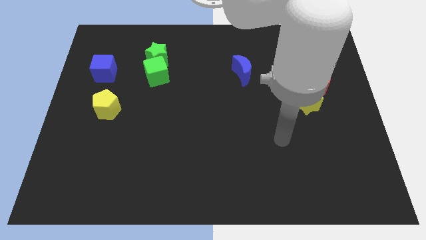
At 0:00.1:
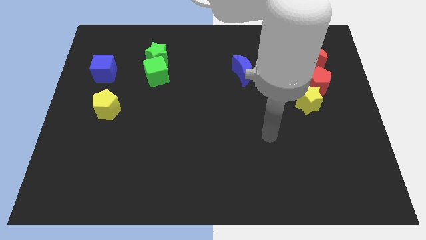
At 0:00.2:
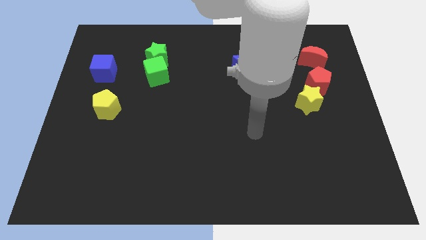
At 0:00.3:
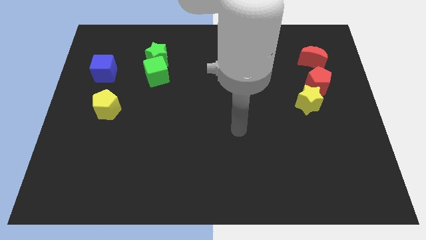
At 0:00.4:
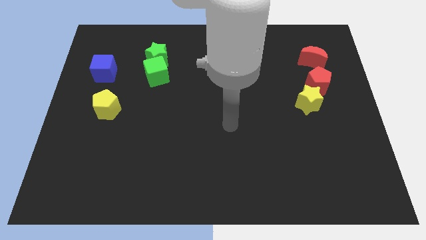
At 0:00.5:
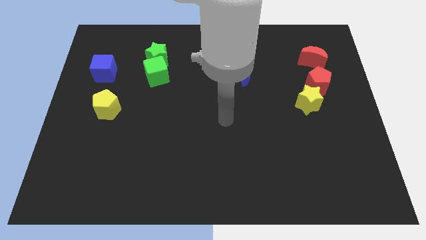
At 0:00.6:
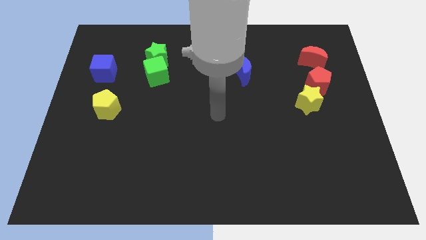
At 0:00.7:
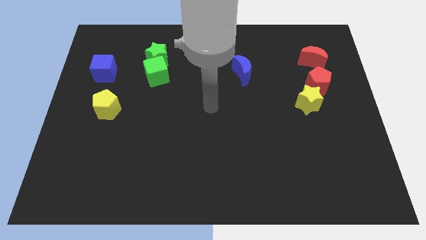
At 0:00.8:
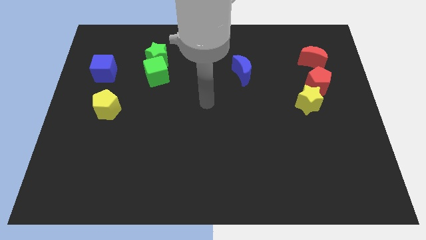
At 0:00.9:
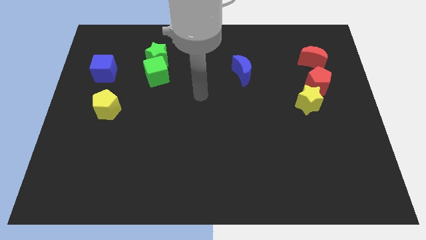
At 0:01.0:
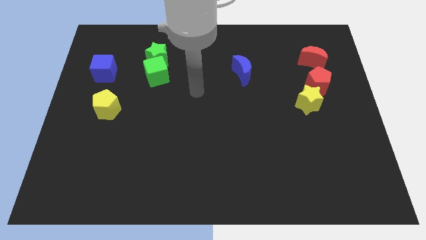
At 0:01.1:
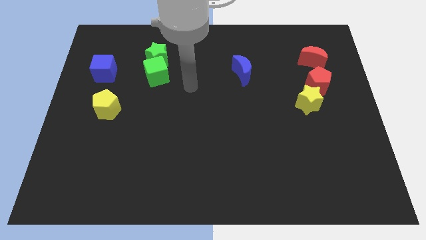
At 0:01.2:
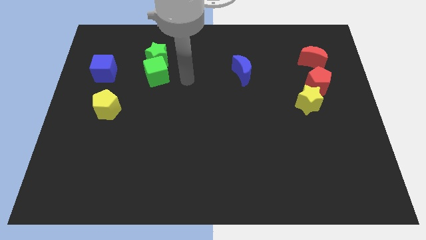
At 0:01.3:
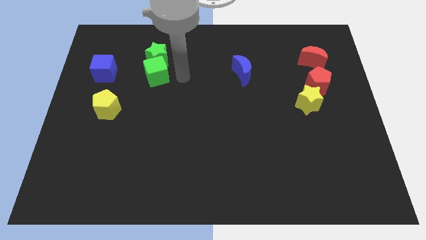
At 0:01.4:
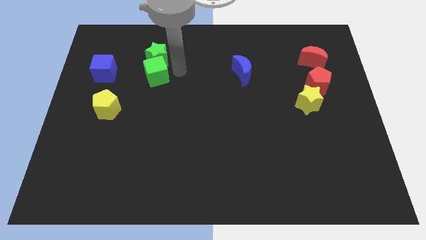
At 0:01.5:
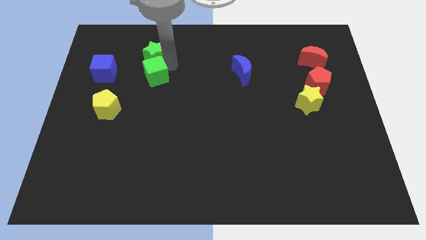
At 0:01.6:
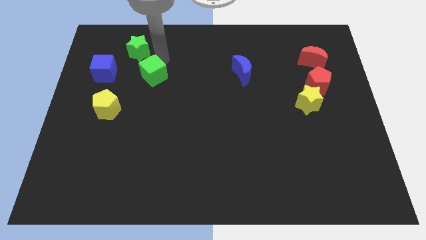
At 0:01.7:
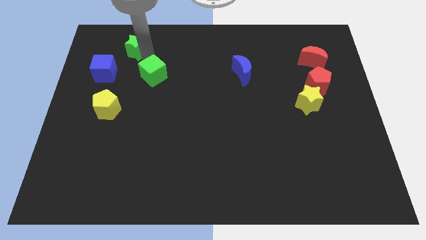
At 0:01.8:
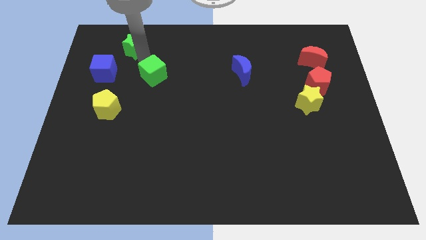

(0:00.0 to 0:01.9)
pull the green cube apart from the green star

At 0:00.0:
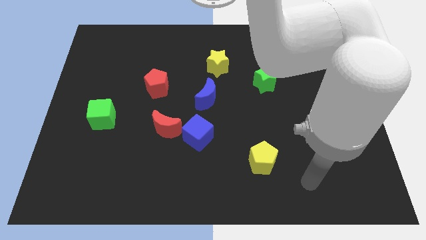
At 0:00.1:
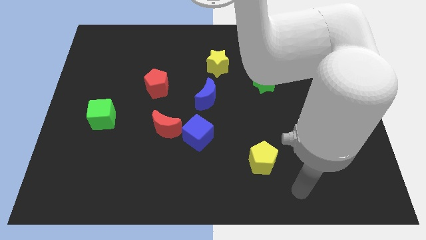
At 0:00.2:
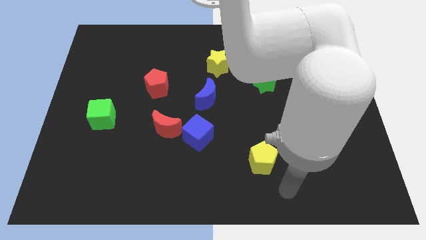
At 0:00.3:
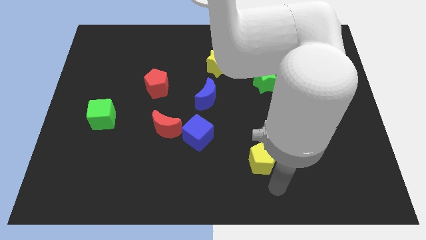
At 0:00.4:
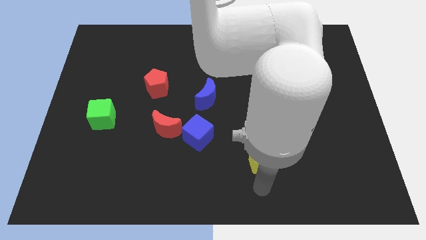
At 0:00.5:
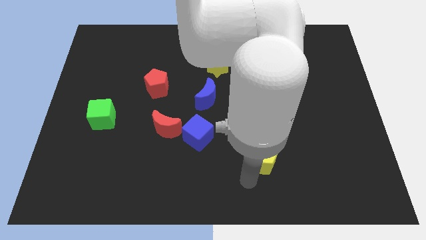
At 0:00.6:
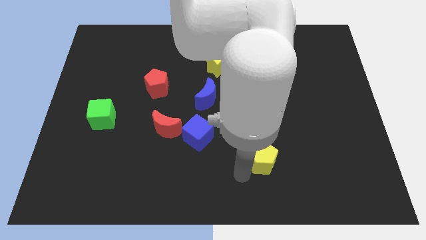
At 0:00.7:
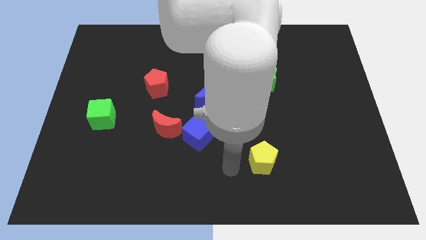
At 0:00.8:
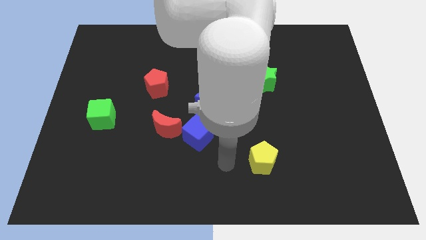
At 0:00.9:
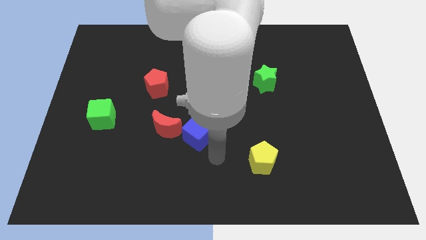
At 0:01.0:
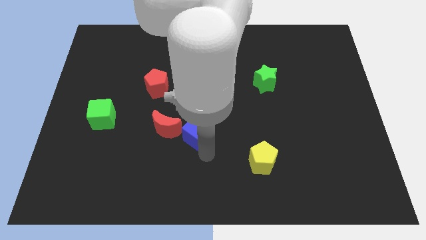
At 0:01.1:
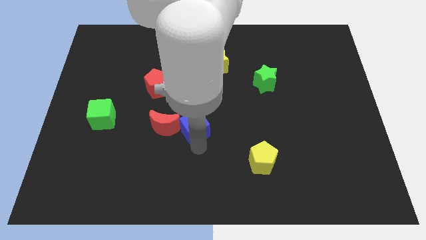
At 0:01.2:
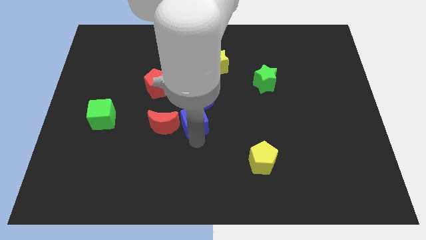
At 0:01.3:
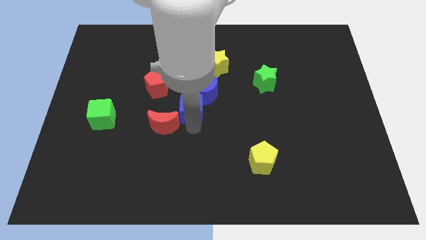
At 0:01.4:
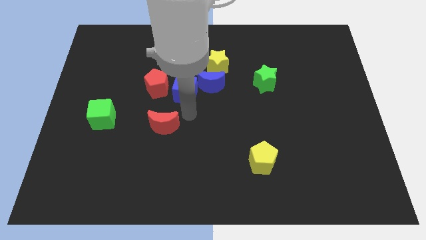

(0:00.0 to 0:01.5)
move the red moon away from the blue cube

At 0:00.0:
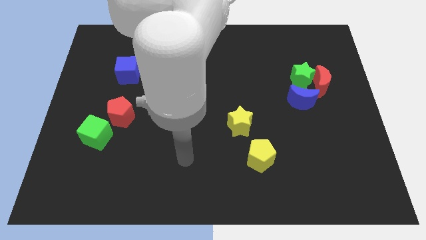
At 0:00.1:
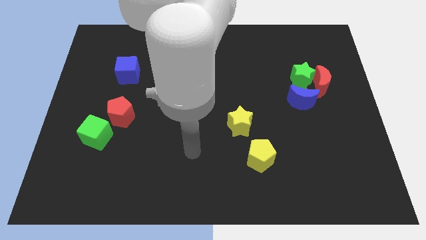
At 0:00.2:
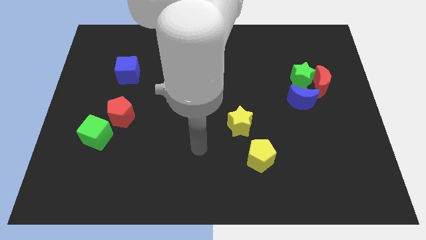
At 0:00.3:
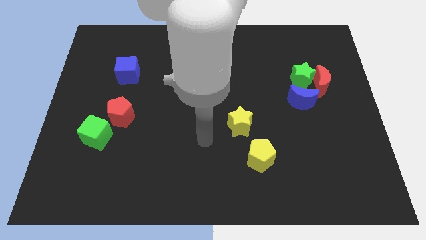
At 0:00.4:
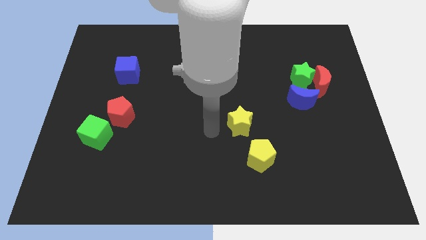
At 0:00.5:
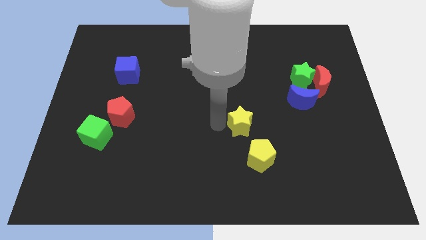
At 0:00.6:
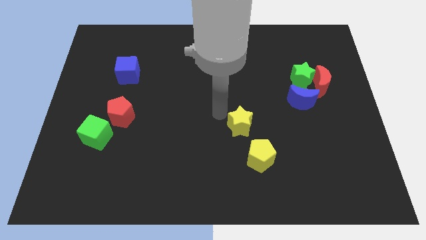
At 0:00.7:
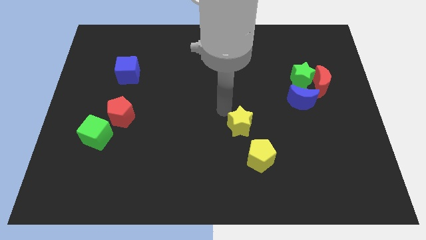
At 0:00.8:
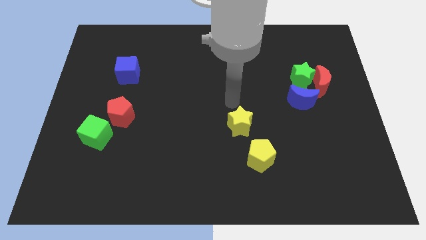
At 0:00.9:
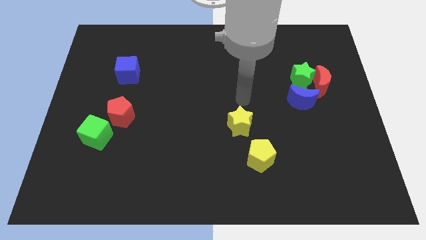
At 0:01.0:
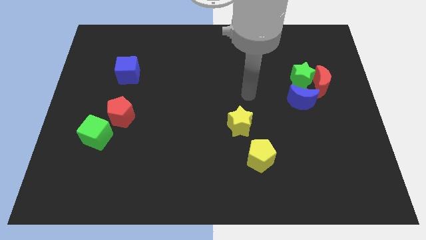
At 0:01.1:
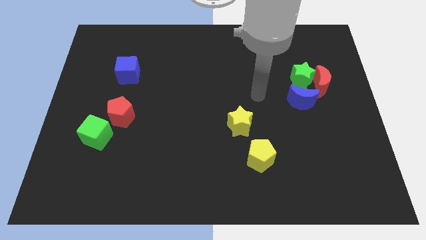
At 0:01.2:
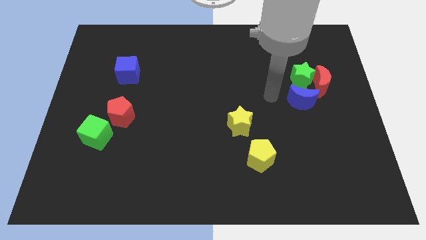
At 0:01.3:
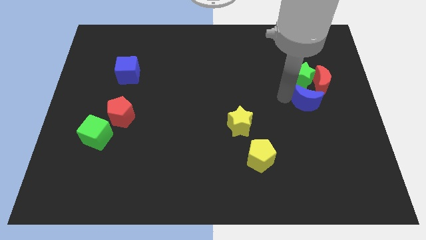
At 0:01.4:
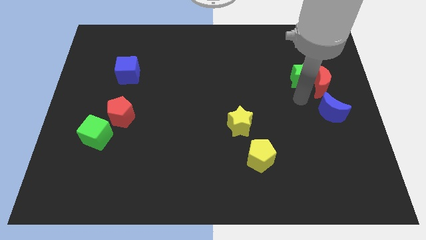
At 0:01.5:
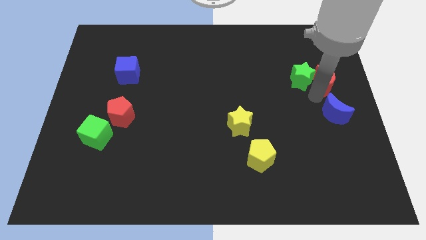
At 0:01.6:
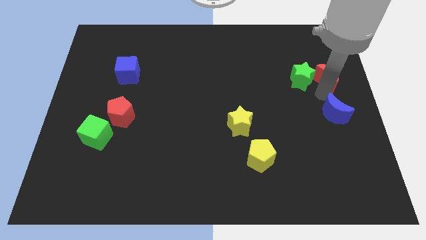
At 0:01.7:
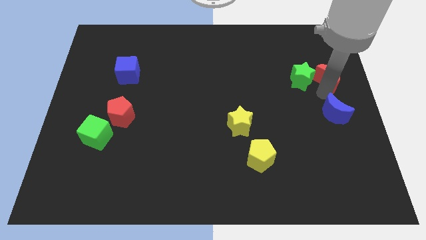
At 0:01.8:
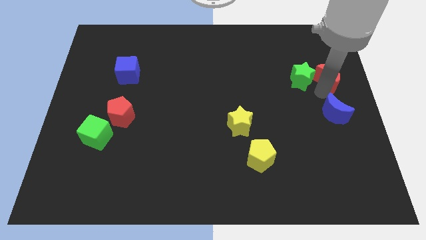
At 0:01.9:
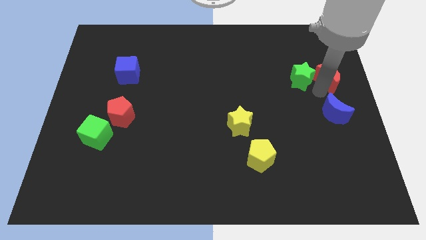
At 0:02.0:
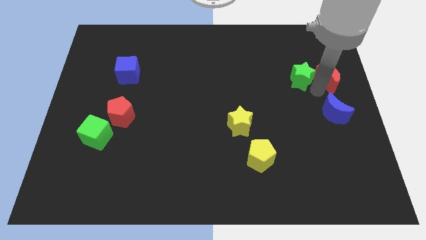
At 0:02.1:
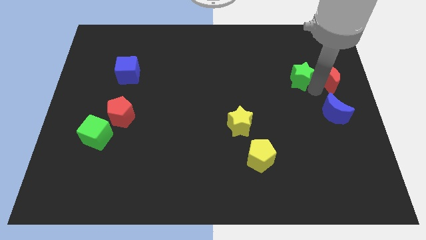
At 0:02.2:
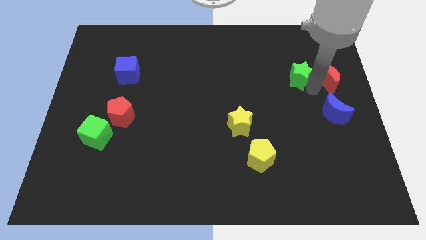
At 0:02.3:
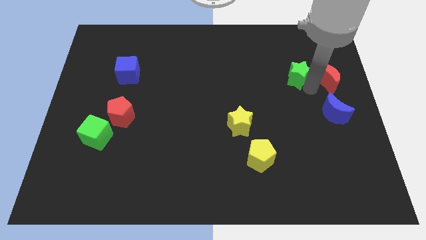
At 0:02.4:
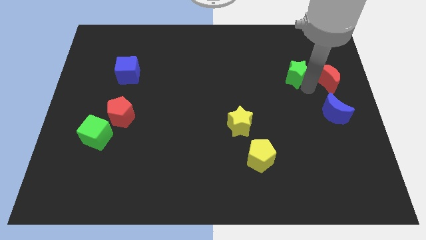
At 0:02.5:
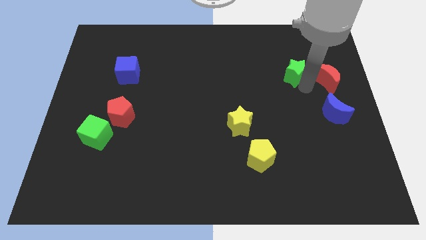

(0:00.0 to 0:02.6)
move the green star away from the red moon and blue moon

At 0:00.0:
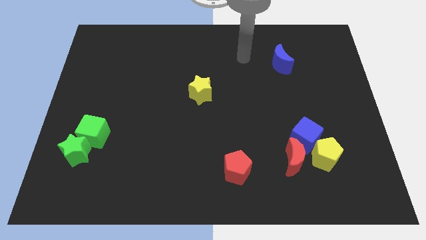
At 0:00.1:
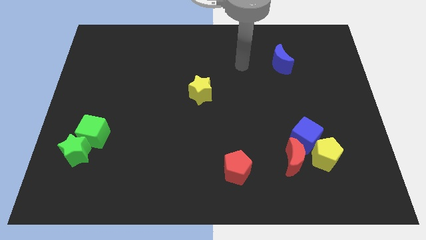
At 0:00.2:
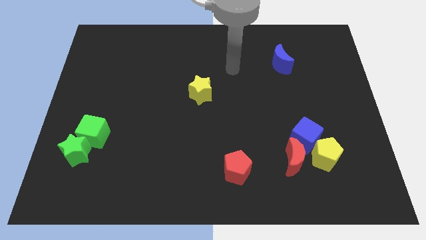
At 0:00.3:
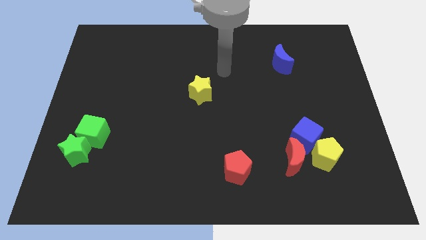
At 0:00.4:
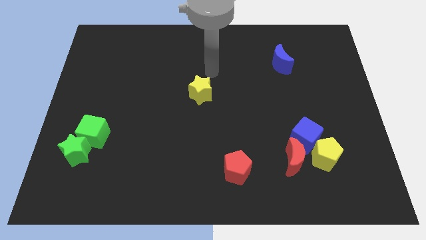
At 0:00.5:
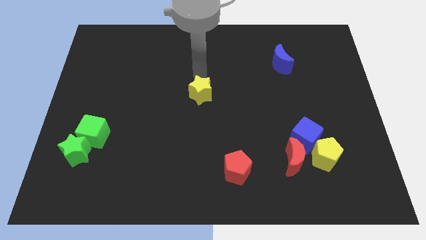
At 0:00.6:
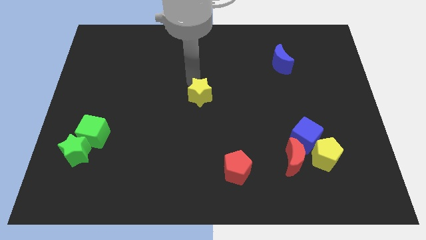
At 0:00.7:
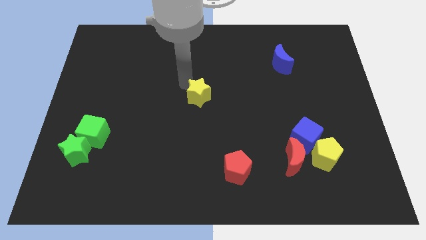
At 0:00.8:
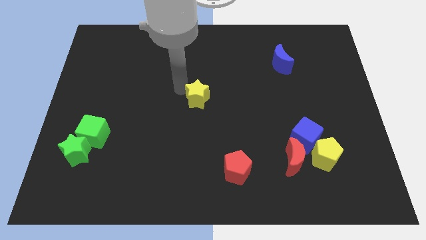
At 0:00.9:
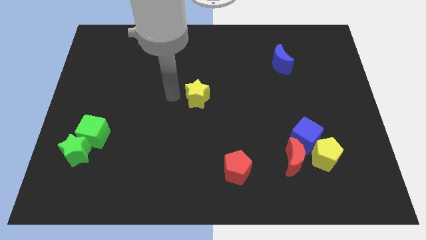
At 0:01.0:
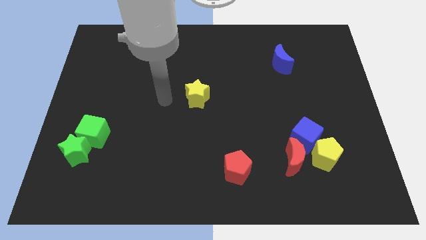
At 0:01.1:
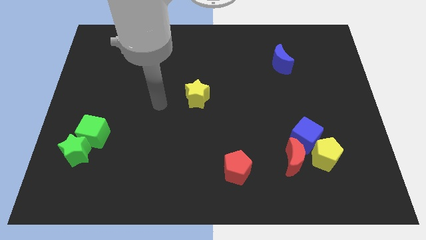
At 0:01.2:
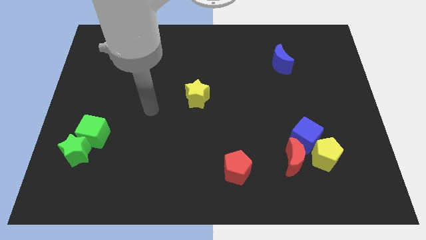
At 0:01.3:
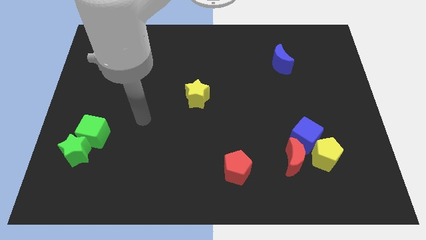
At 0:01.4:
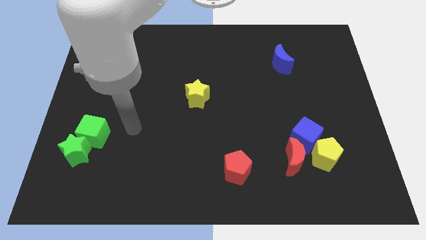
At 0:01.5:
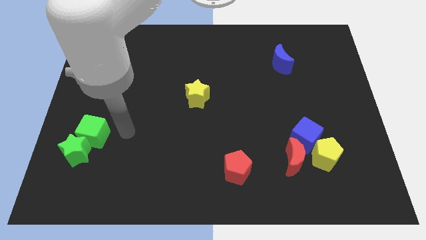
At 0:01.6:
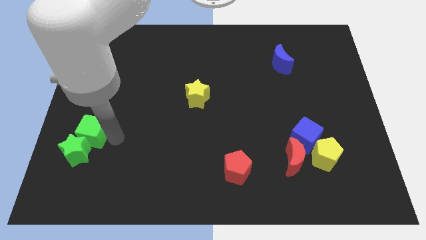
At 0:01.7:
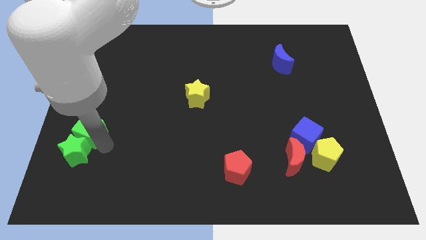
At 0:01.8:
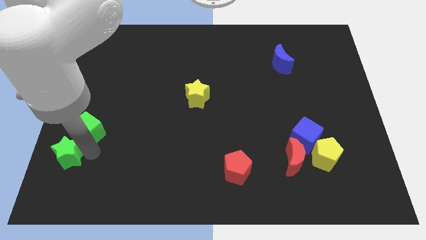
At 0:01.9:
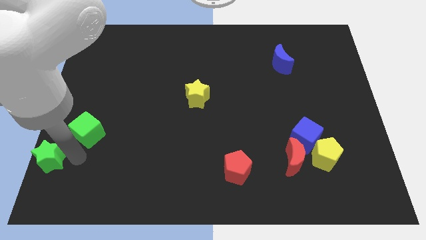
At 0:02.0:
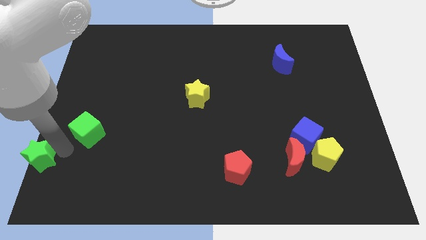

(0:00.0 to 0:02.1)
move the green cube away from the green star

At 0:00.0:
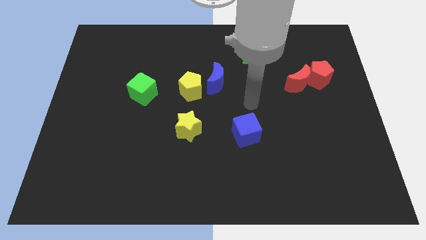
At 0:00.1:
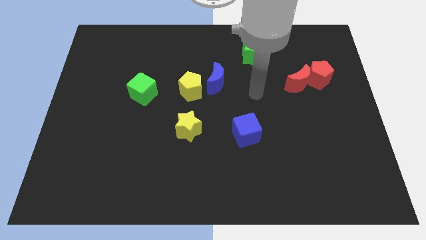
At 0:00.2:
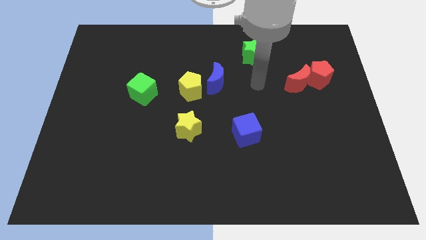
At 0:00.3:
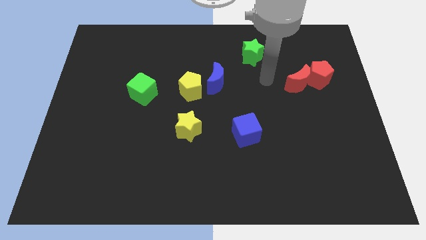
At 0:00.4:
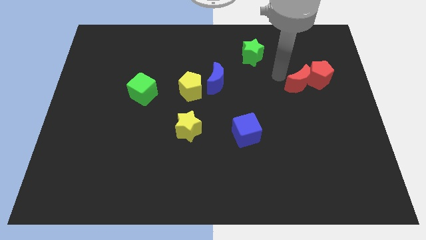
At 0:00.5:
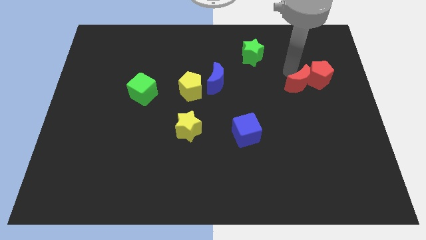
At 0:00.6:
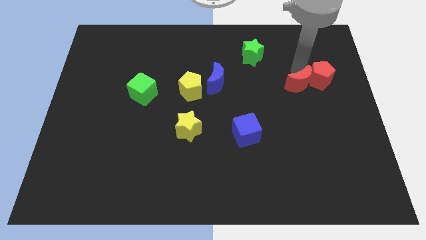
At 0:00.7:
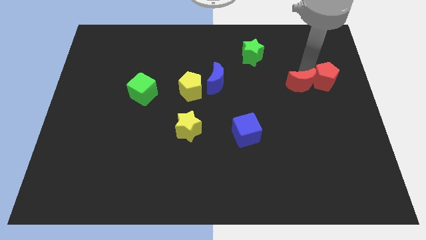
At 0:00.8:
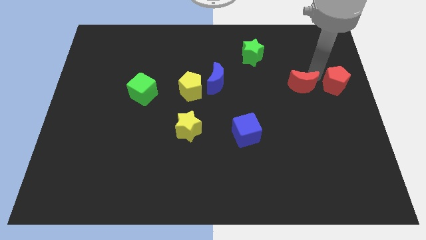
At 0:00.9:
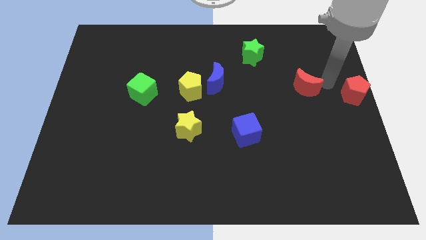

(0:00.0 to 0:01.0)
pull the red moon apart from the red pentagon

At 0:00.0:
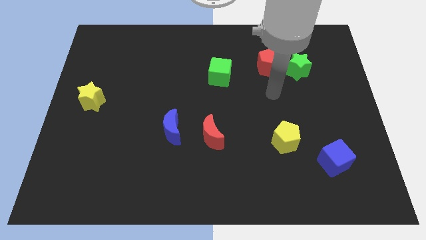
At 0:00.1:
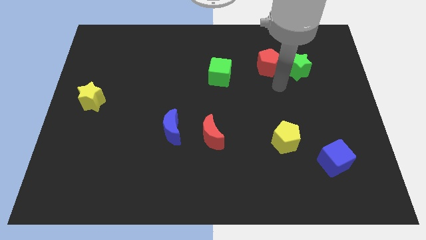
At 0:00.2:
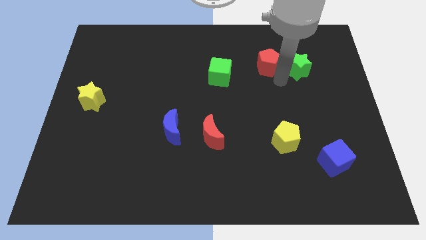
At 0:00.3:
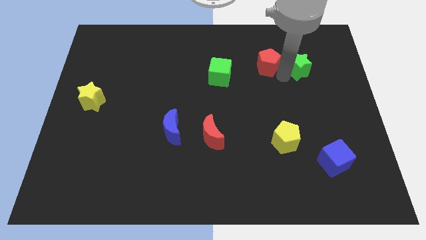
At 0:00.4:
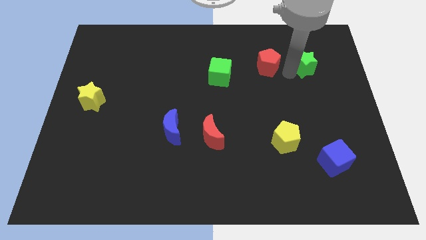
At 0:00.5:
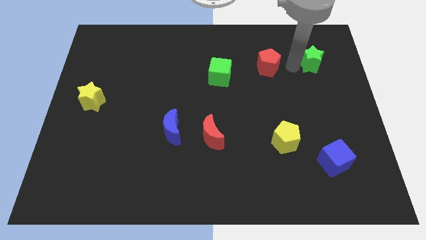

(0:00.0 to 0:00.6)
move the red pentagon away from the green star
